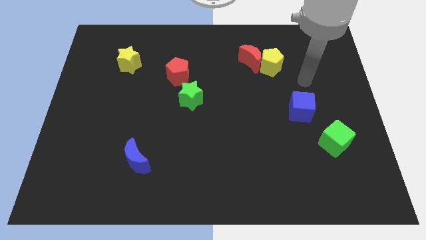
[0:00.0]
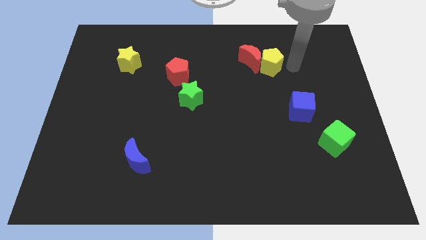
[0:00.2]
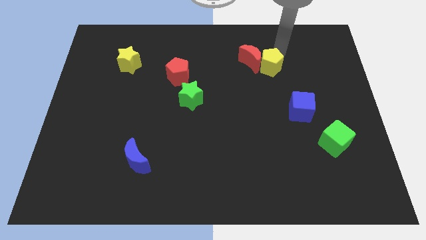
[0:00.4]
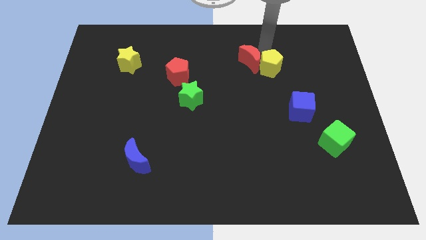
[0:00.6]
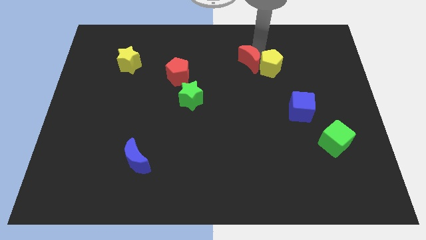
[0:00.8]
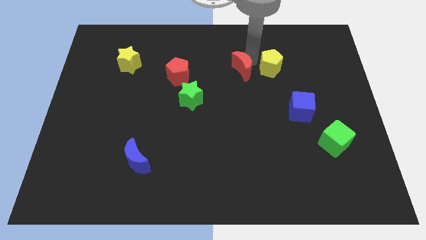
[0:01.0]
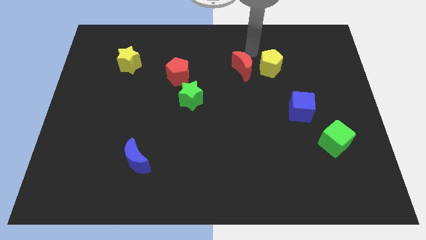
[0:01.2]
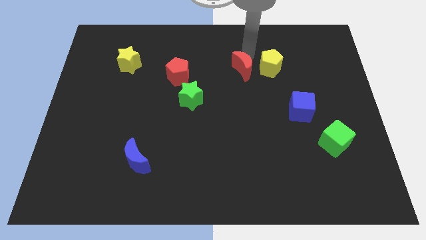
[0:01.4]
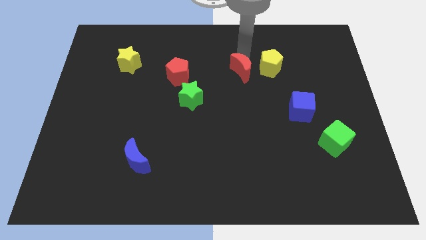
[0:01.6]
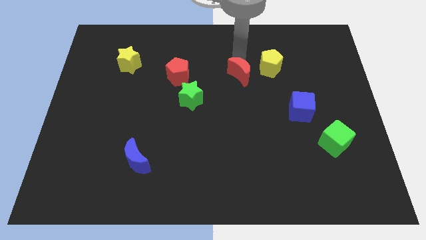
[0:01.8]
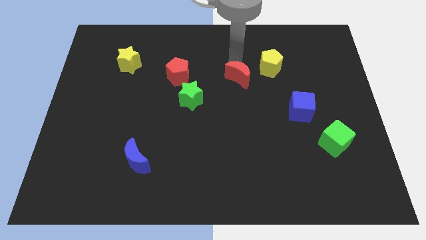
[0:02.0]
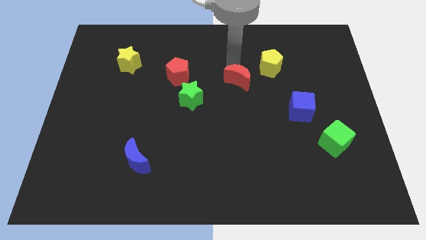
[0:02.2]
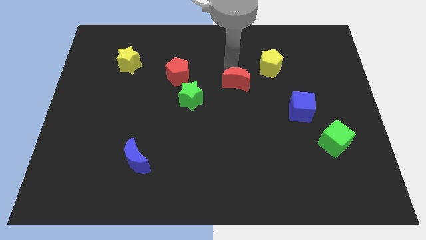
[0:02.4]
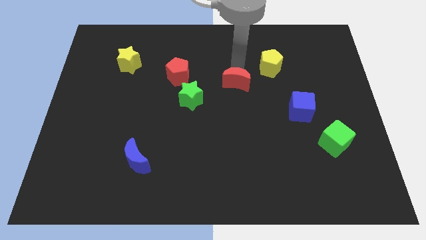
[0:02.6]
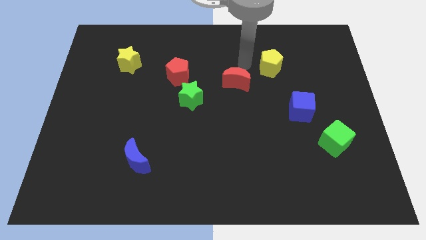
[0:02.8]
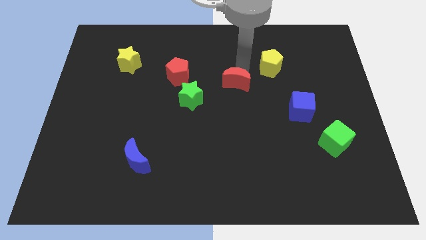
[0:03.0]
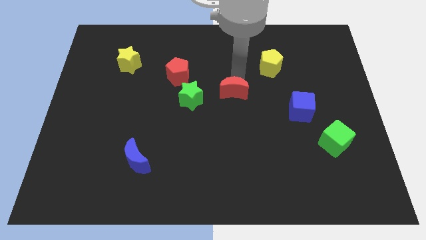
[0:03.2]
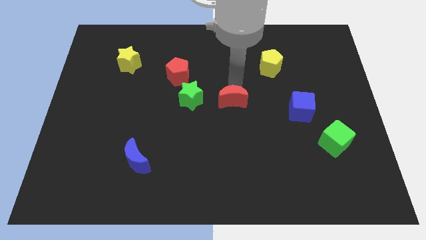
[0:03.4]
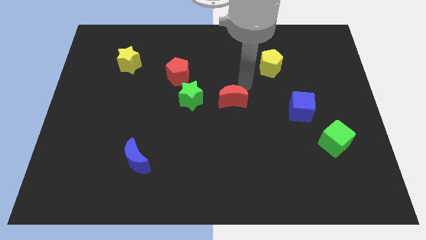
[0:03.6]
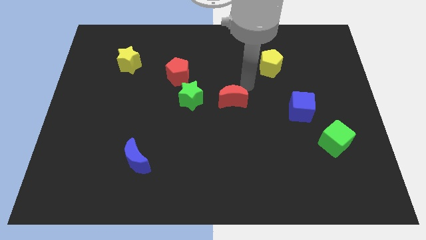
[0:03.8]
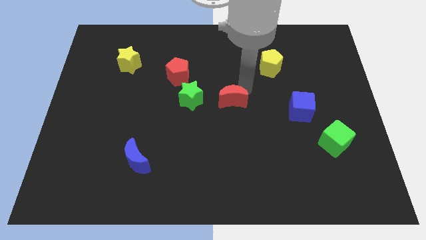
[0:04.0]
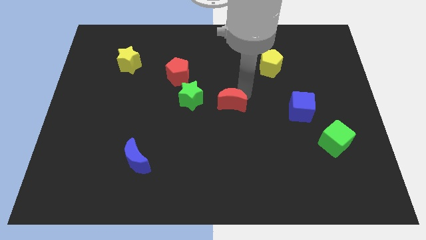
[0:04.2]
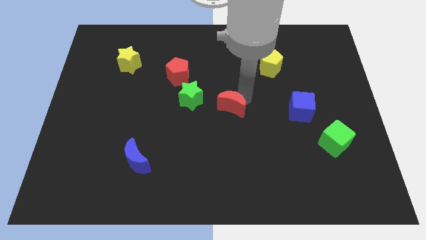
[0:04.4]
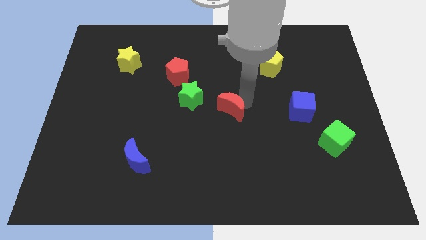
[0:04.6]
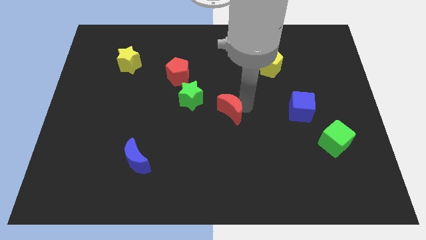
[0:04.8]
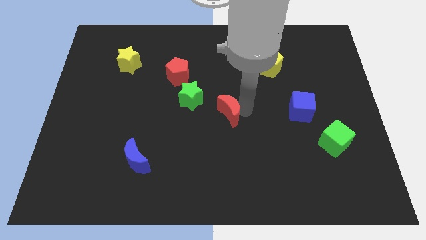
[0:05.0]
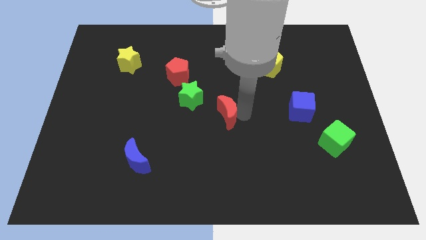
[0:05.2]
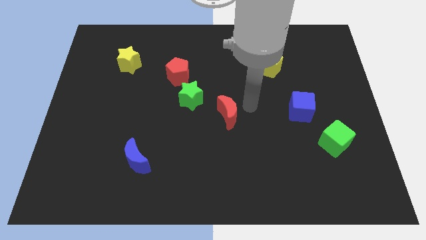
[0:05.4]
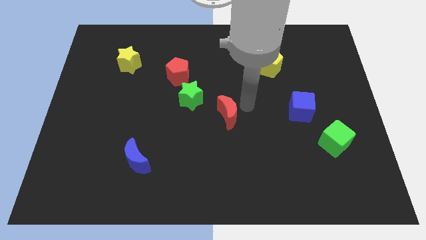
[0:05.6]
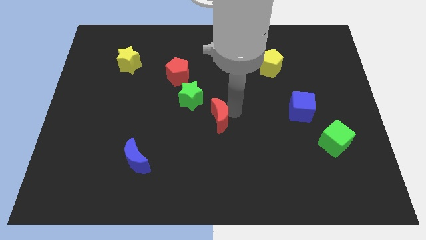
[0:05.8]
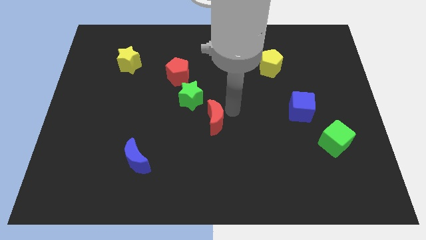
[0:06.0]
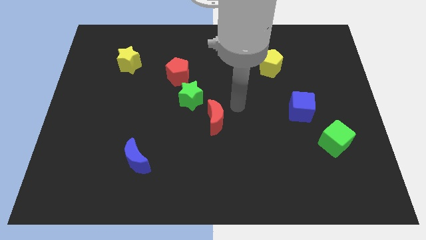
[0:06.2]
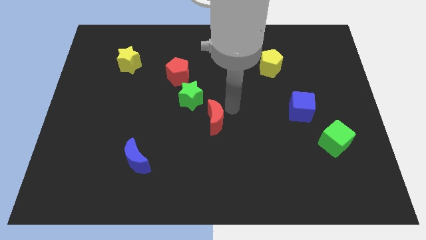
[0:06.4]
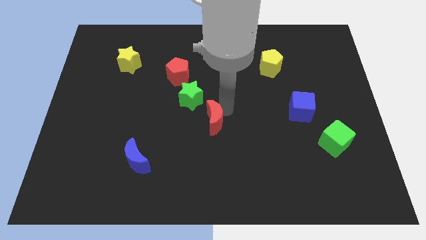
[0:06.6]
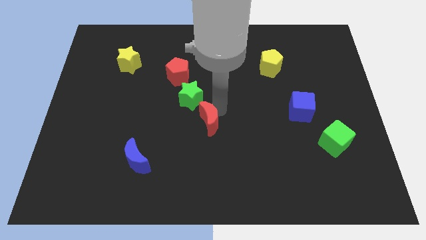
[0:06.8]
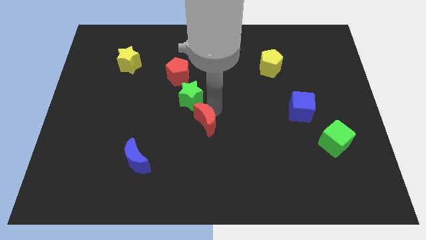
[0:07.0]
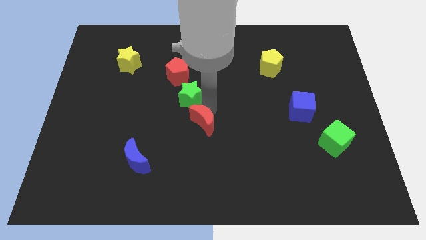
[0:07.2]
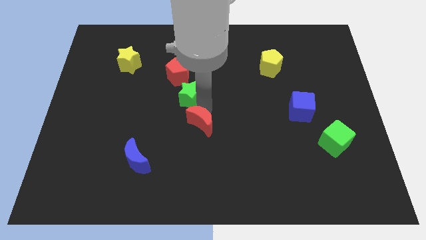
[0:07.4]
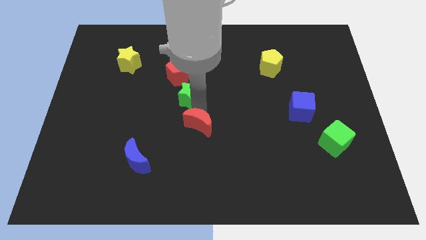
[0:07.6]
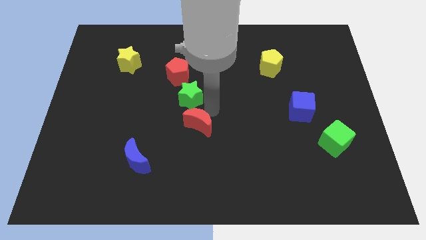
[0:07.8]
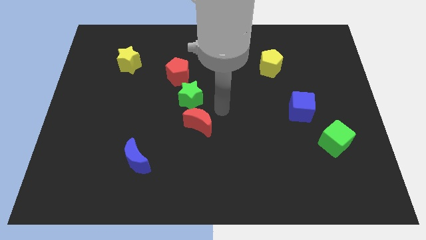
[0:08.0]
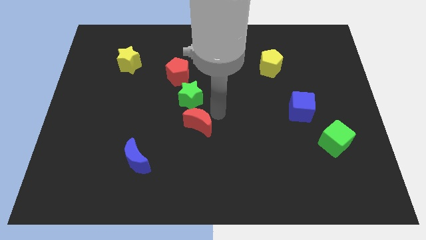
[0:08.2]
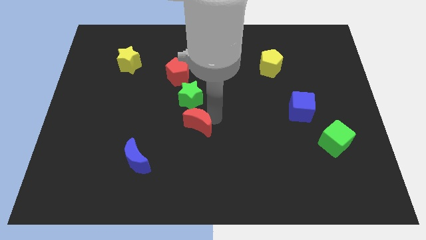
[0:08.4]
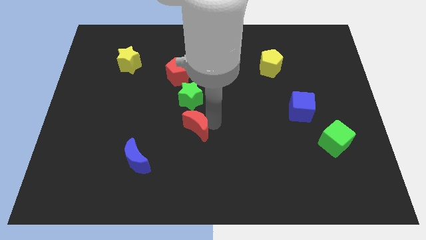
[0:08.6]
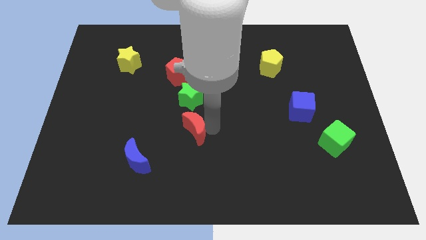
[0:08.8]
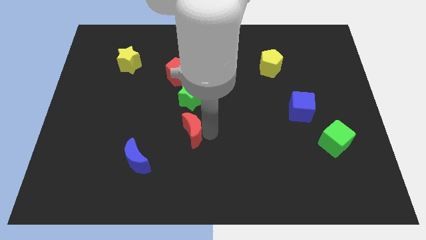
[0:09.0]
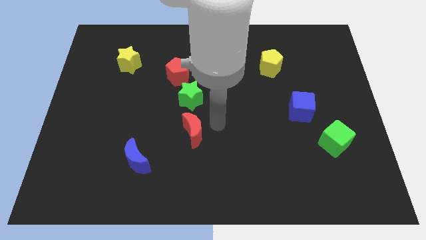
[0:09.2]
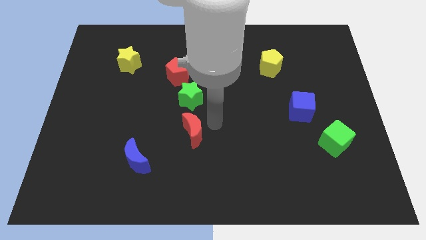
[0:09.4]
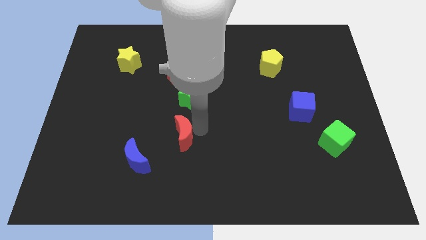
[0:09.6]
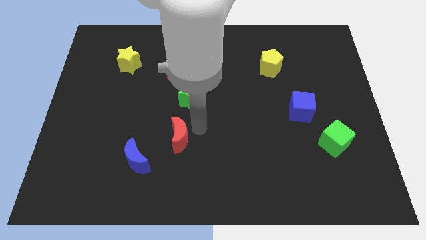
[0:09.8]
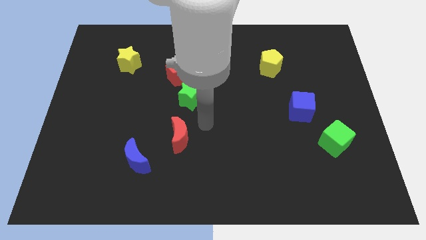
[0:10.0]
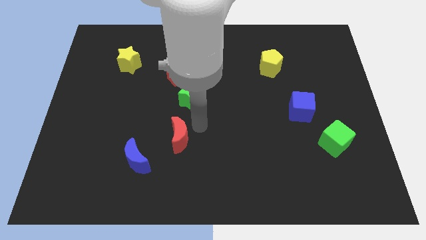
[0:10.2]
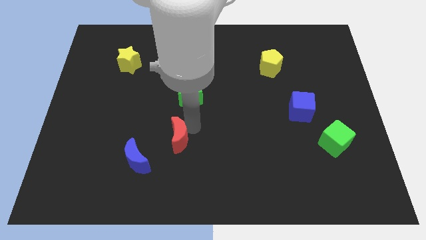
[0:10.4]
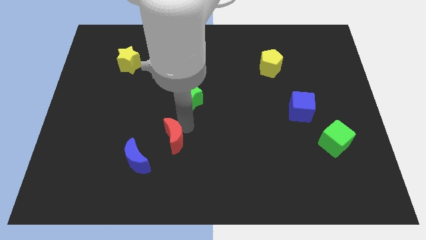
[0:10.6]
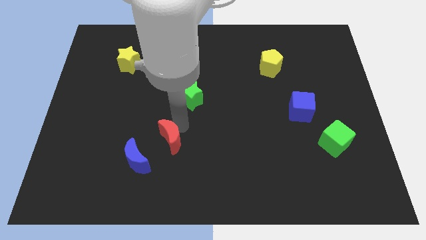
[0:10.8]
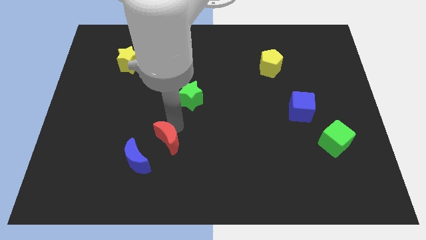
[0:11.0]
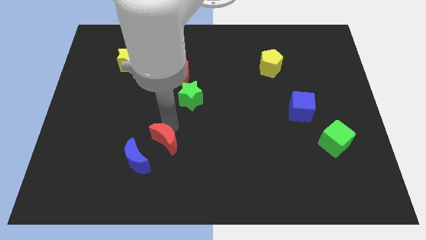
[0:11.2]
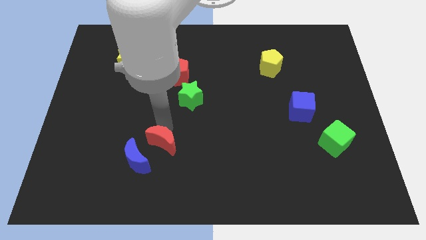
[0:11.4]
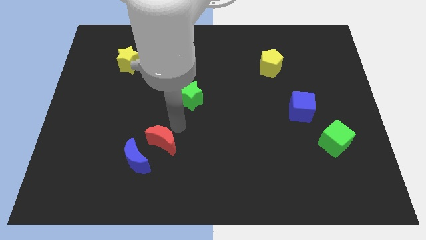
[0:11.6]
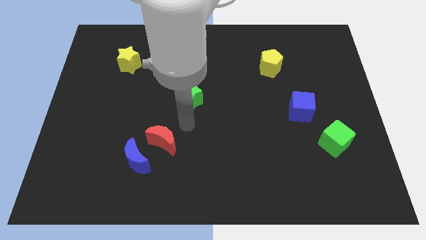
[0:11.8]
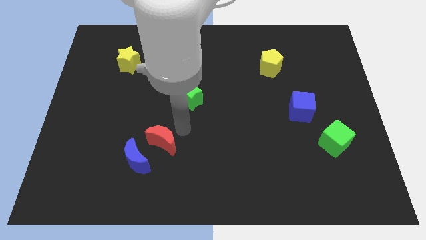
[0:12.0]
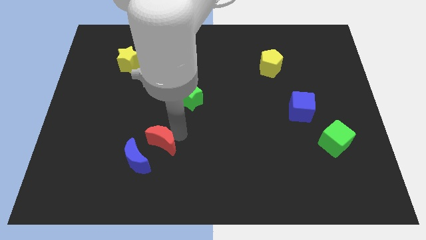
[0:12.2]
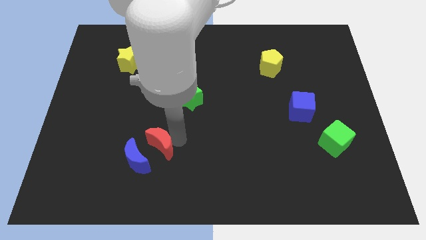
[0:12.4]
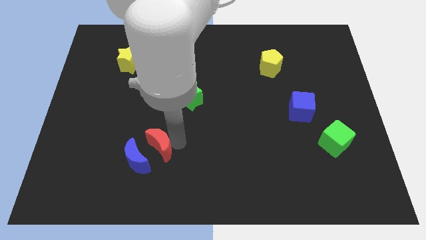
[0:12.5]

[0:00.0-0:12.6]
slide the red moon next to the blue moon

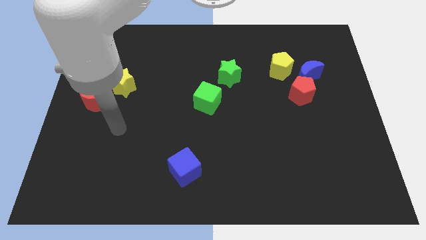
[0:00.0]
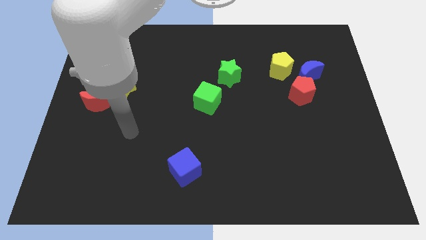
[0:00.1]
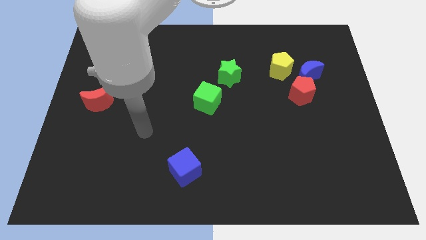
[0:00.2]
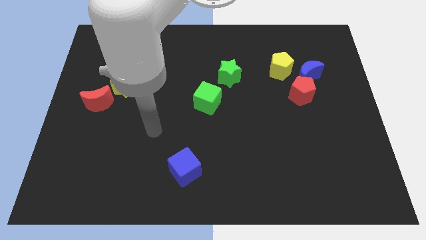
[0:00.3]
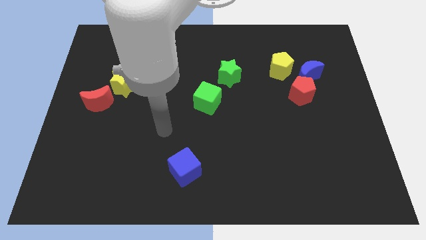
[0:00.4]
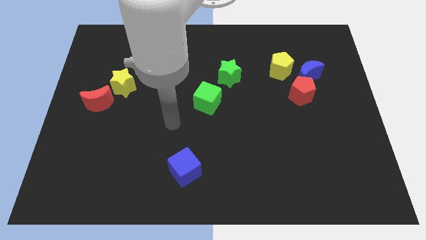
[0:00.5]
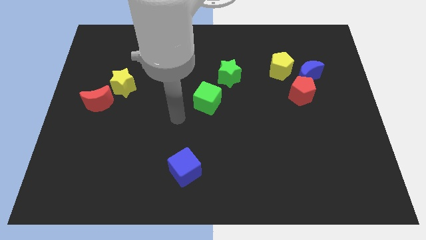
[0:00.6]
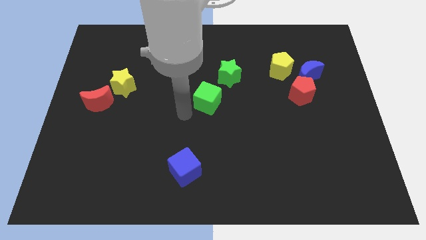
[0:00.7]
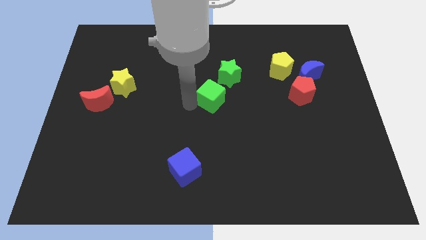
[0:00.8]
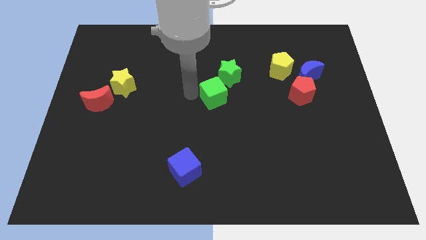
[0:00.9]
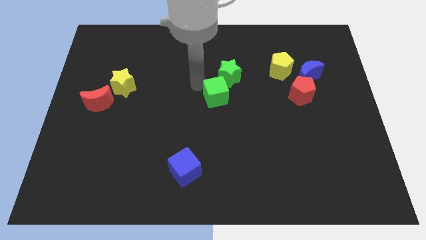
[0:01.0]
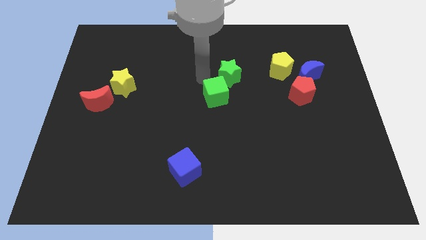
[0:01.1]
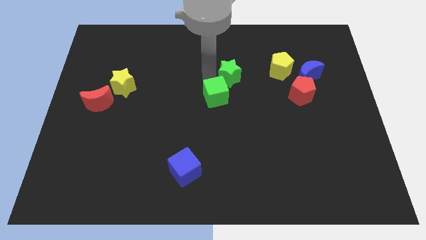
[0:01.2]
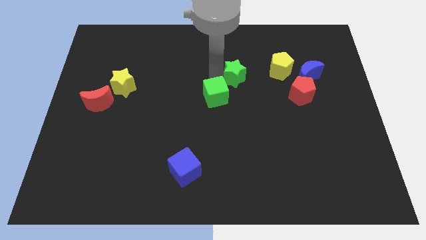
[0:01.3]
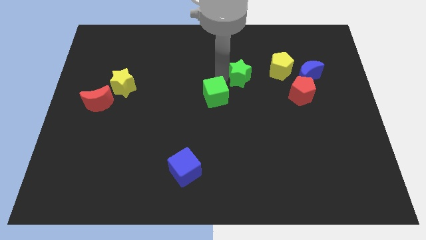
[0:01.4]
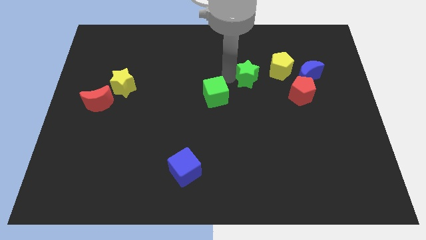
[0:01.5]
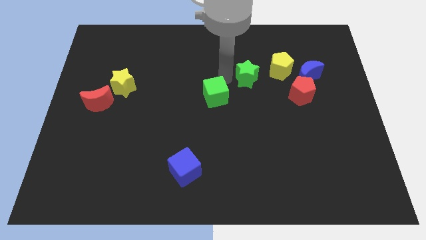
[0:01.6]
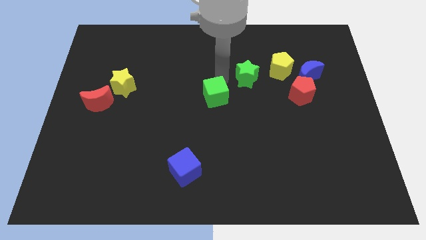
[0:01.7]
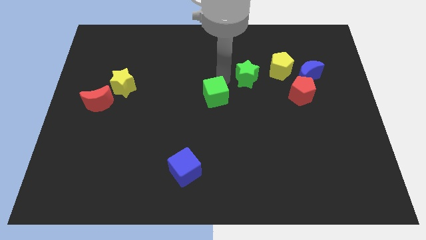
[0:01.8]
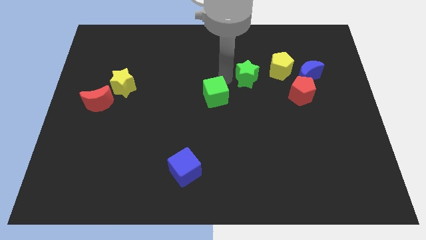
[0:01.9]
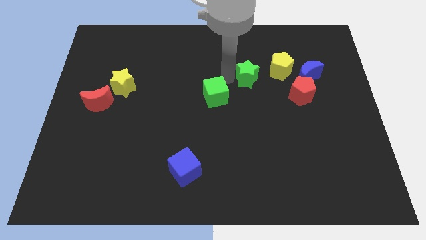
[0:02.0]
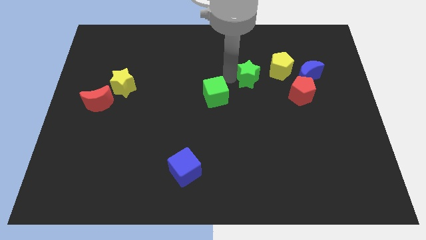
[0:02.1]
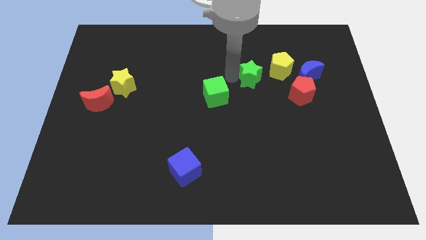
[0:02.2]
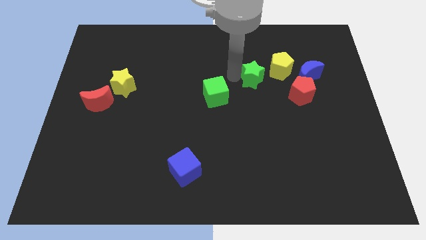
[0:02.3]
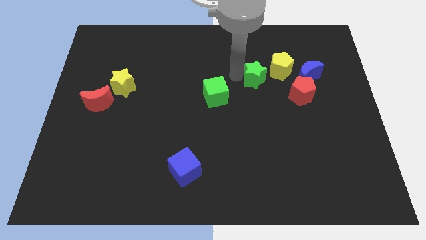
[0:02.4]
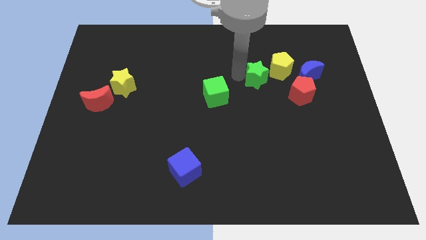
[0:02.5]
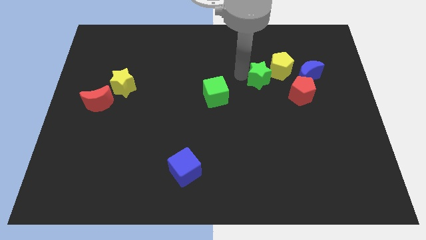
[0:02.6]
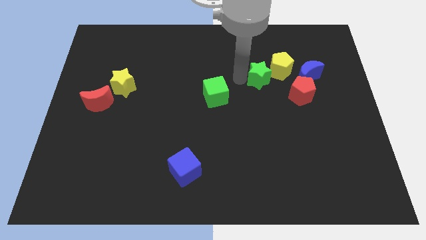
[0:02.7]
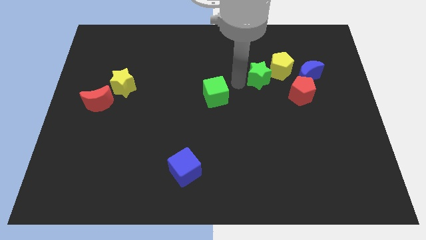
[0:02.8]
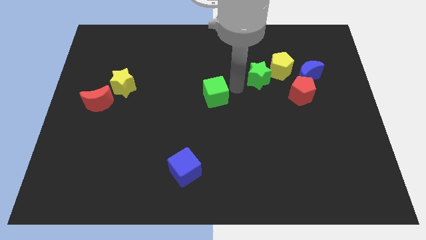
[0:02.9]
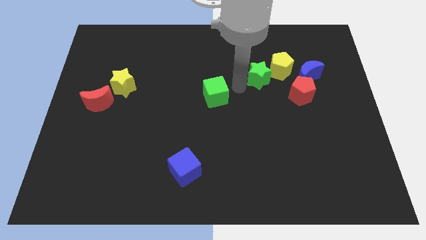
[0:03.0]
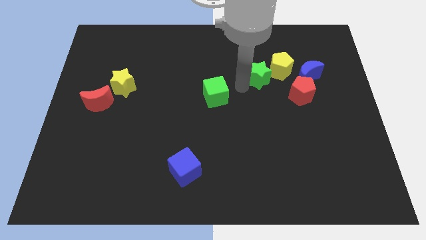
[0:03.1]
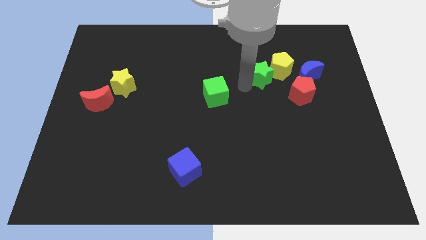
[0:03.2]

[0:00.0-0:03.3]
put the green star towards the yellow pentagon
